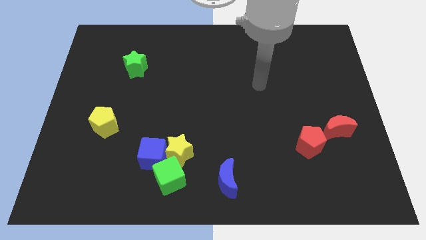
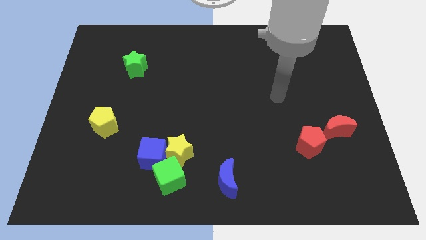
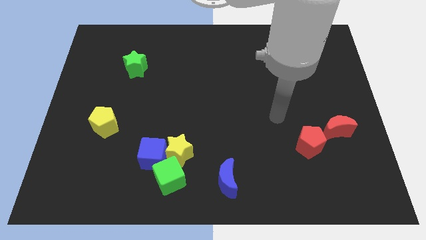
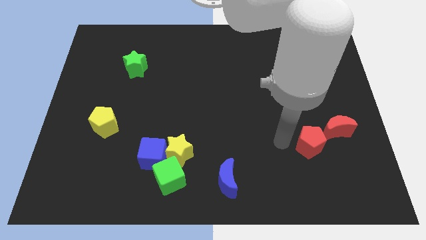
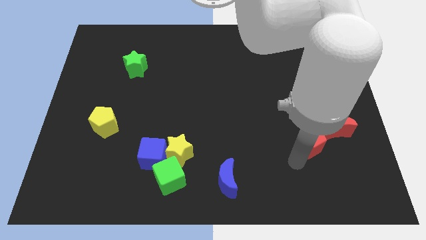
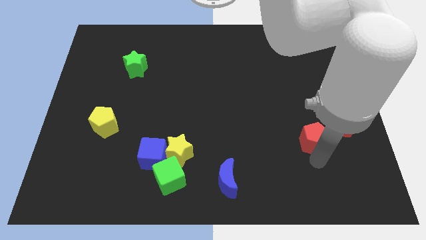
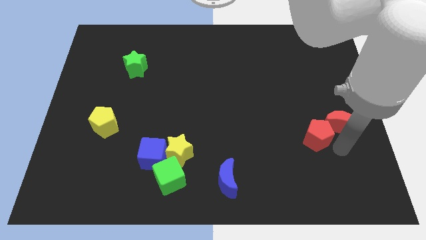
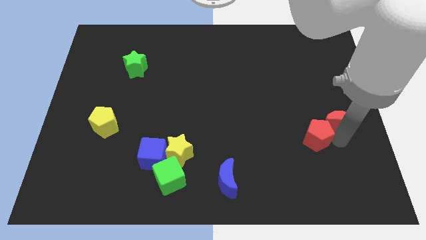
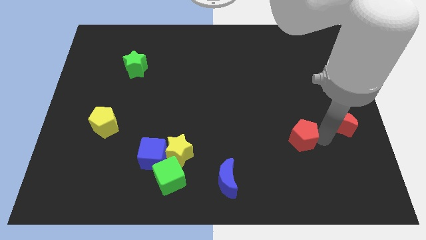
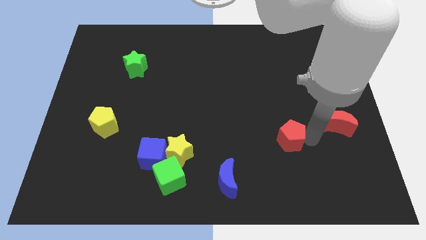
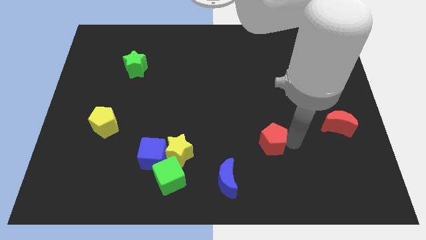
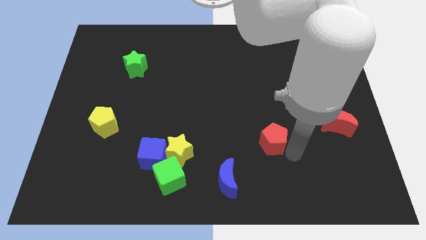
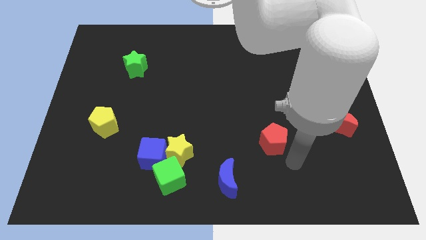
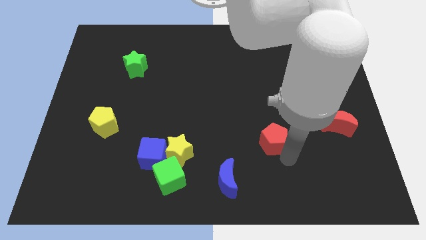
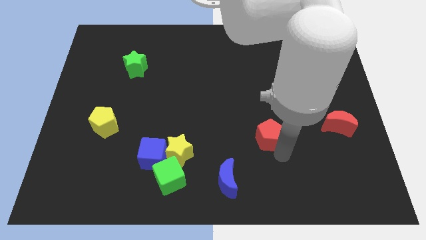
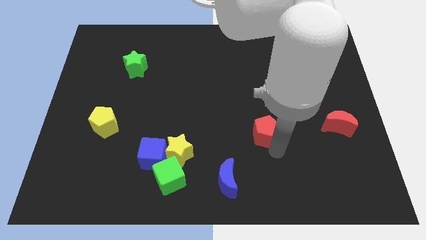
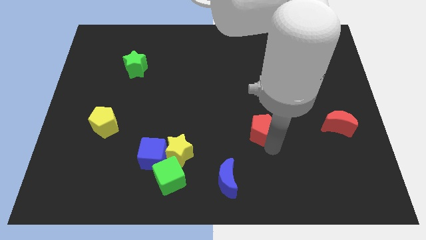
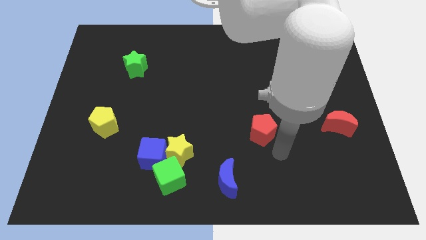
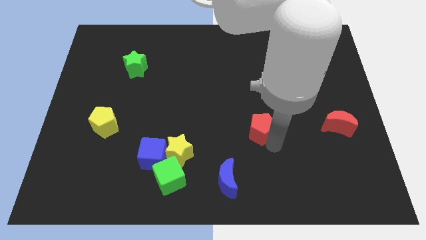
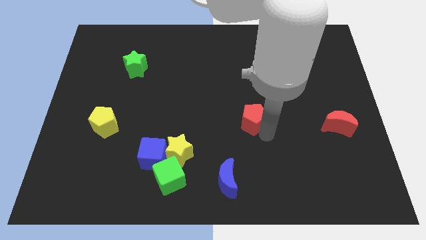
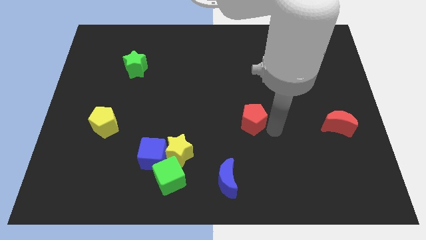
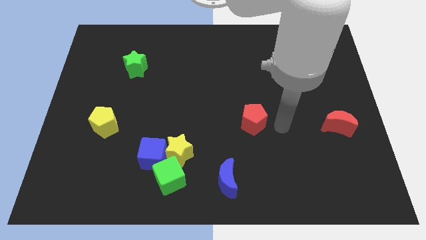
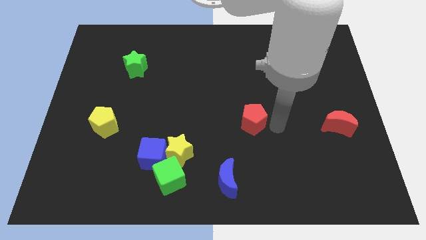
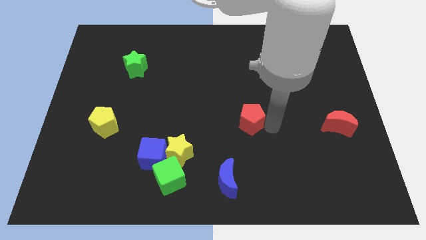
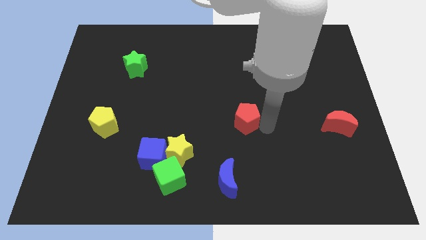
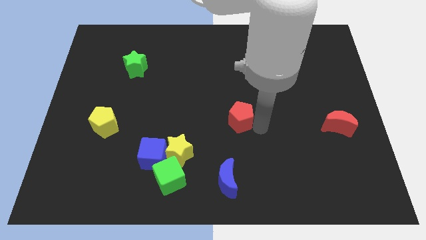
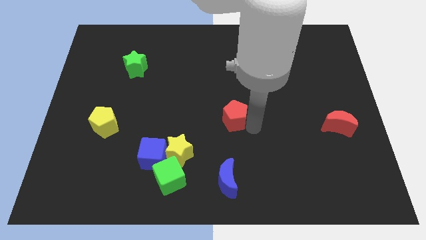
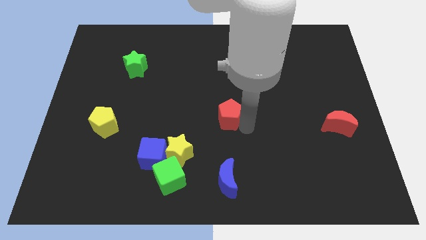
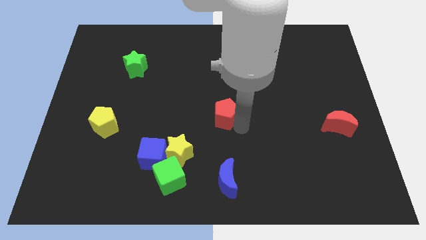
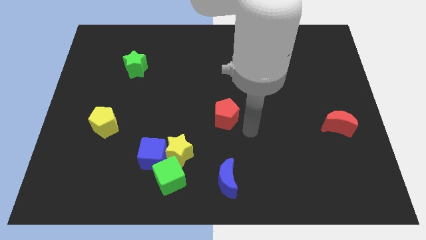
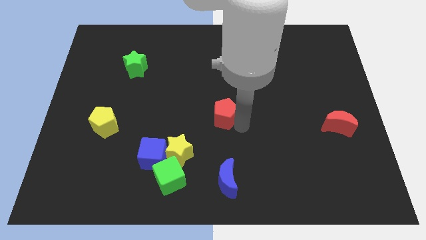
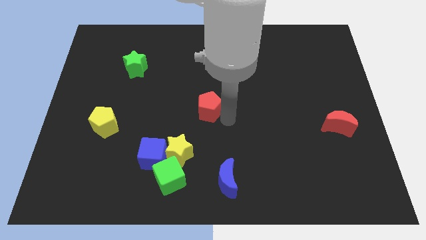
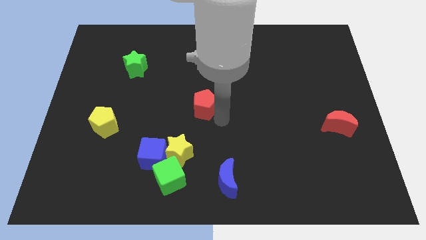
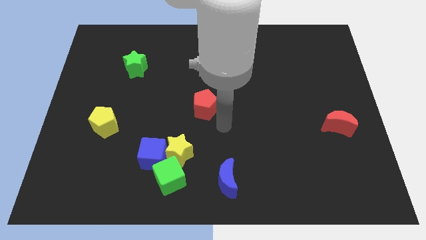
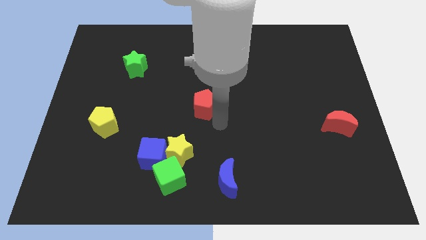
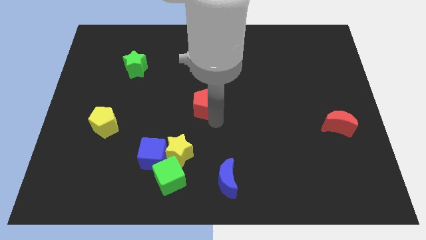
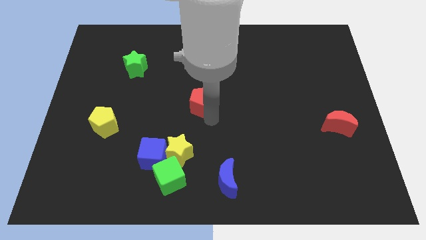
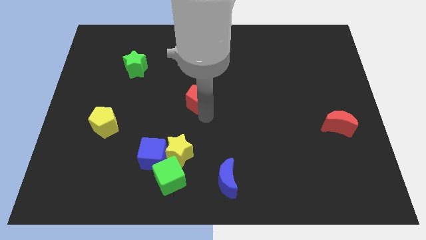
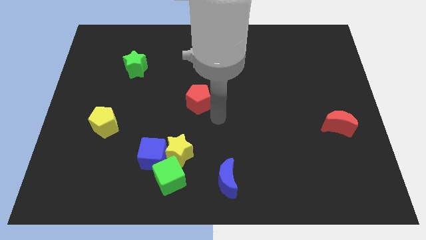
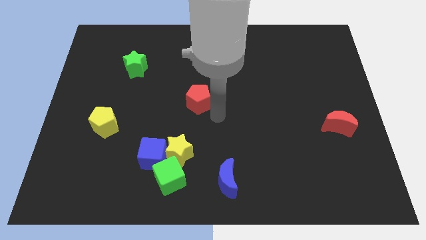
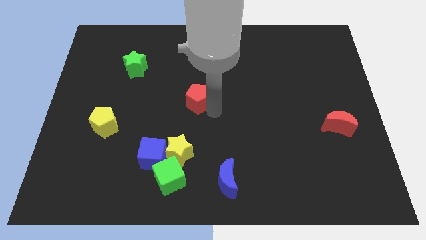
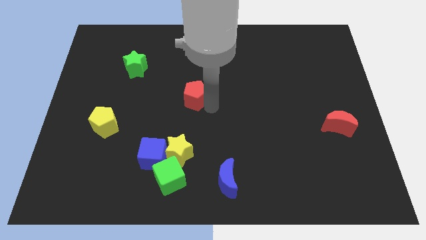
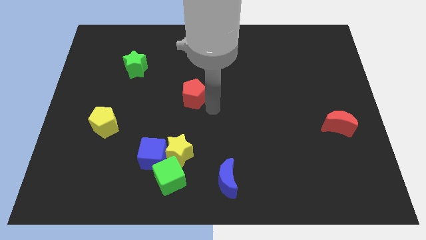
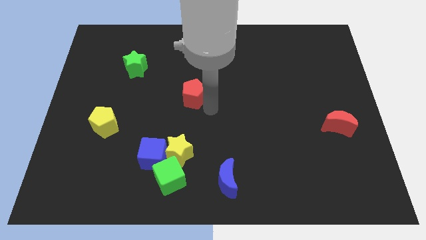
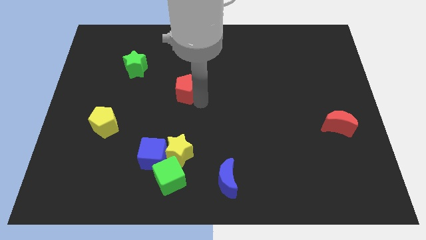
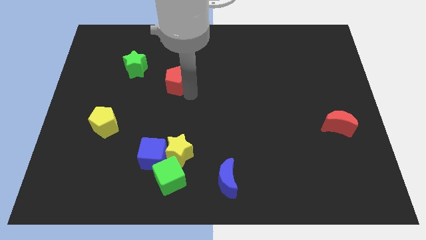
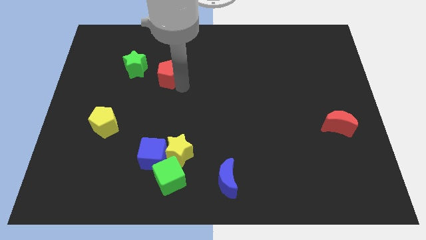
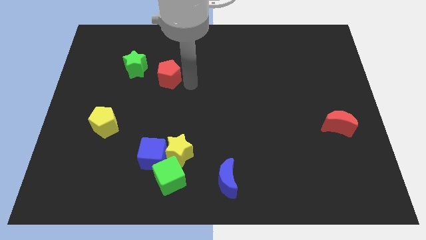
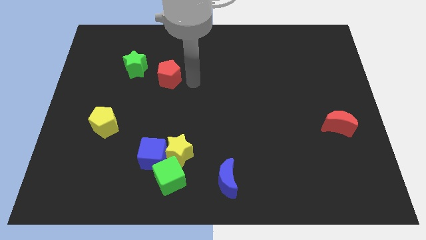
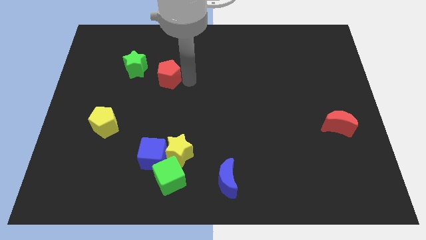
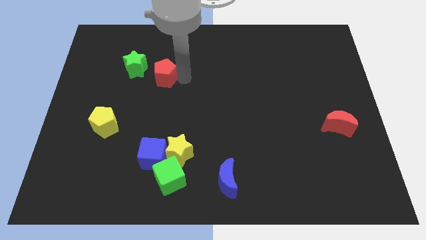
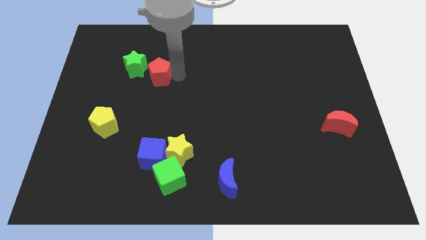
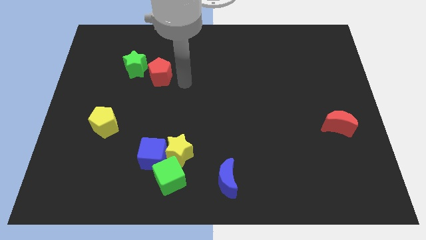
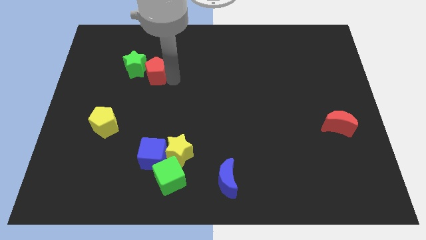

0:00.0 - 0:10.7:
put the red pentagon close to the green star

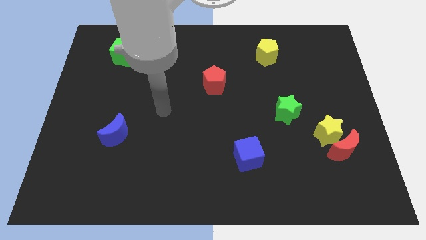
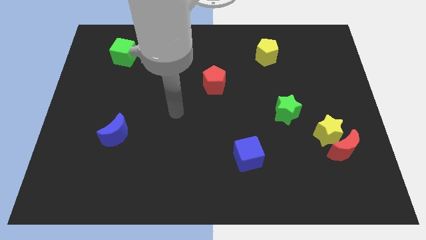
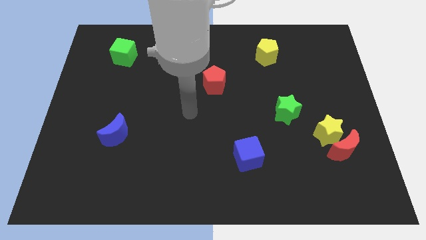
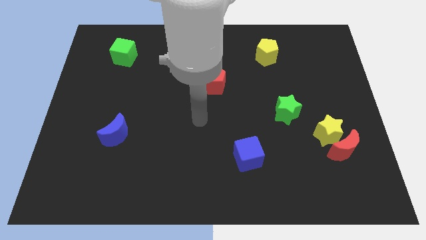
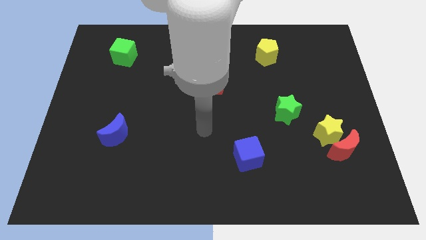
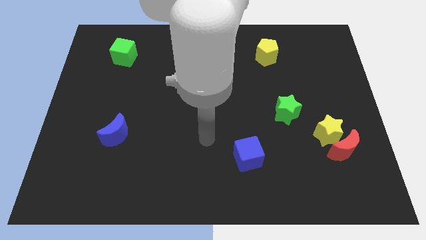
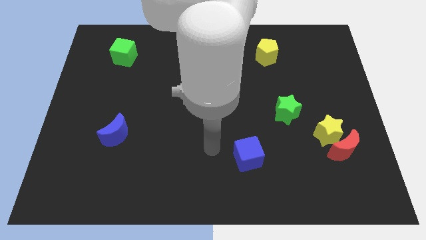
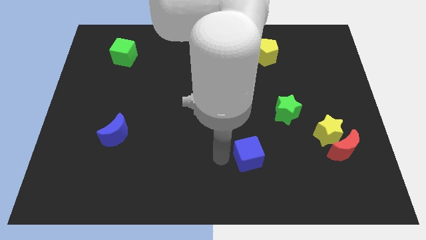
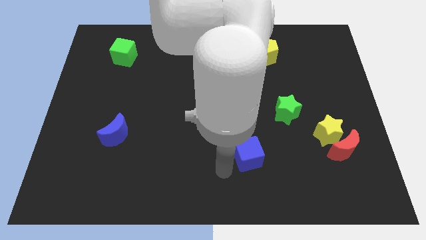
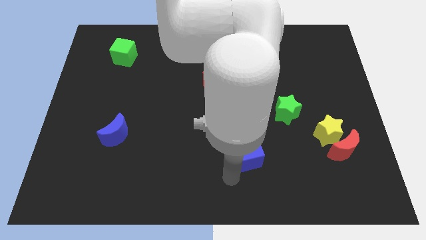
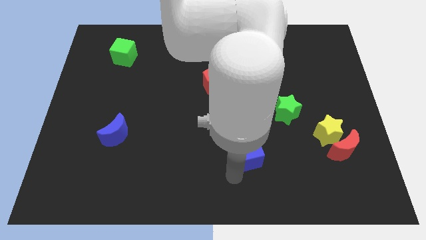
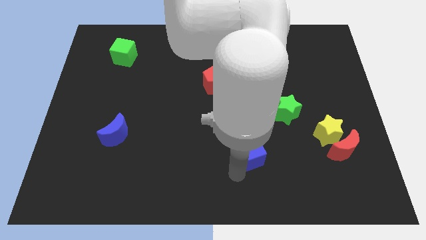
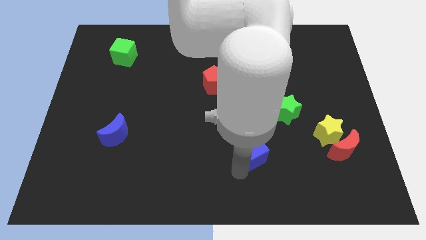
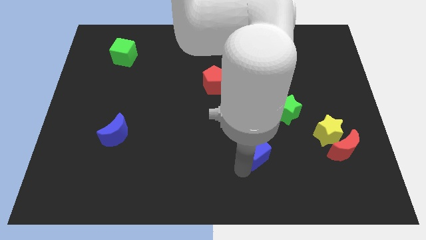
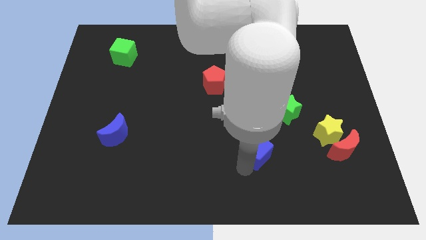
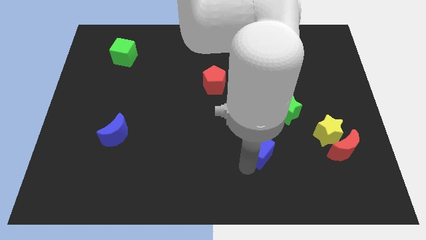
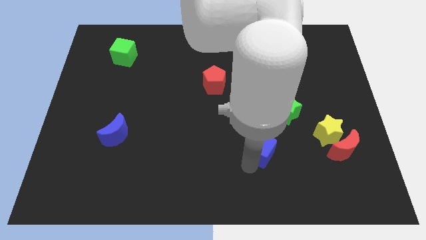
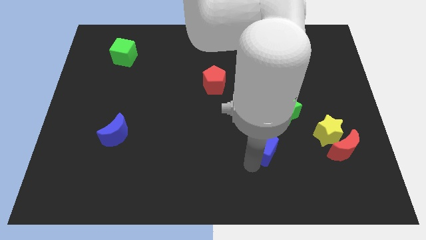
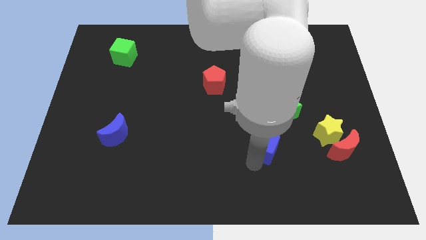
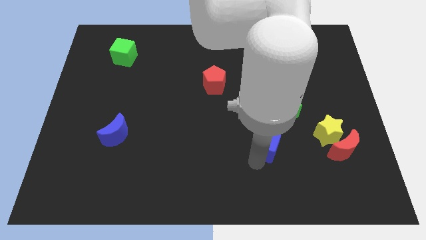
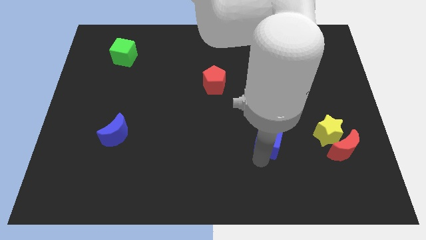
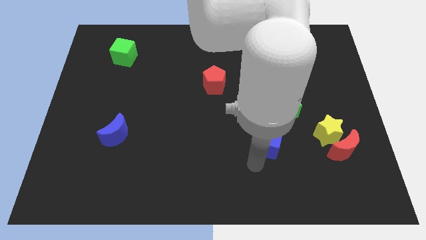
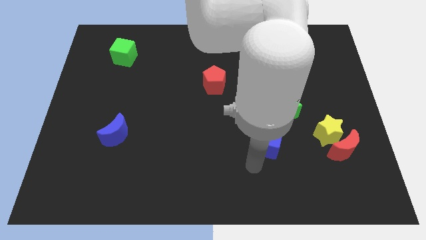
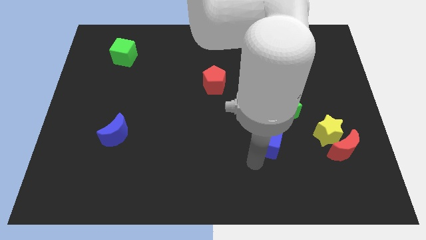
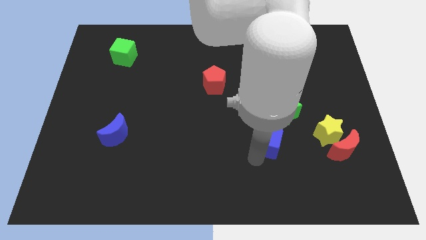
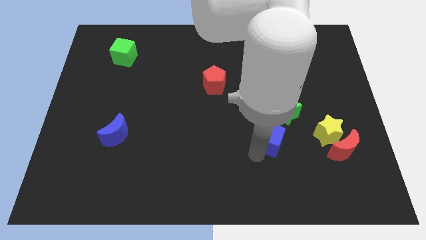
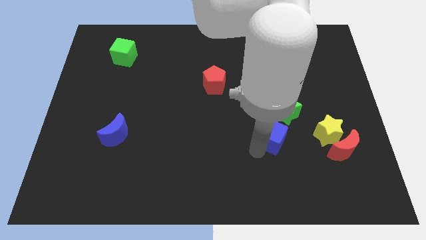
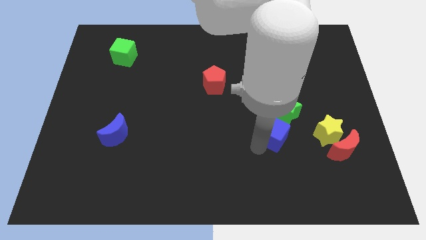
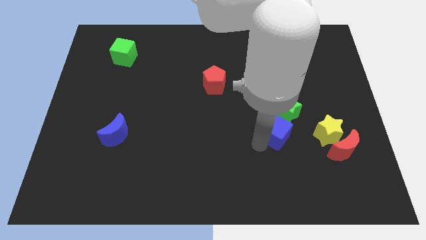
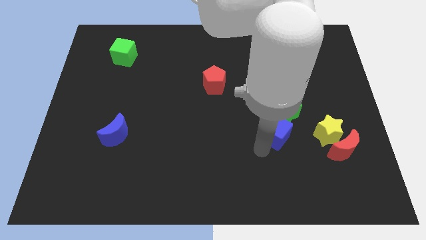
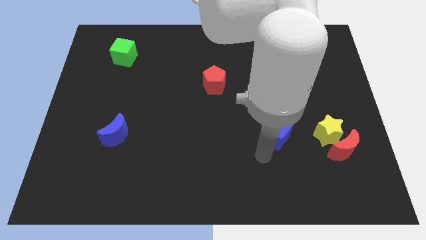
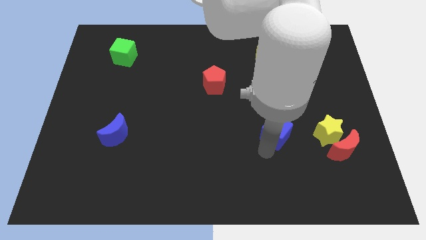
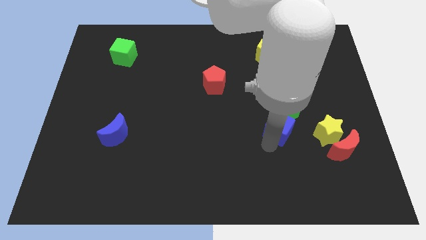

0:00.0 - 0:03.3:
move the blue cube to the green star
